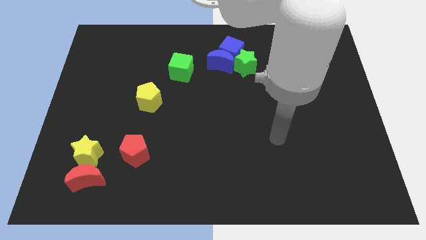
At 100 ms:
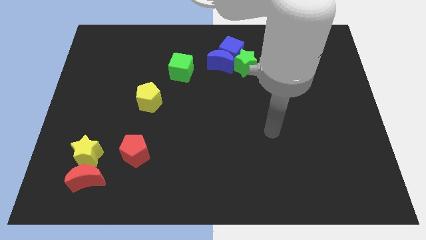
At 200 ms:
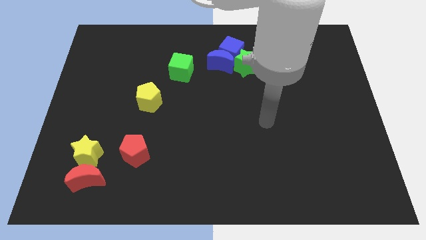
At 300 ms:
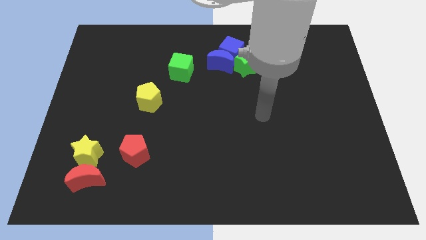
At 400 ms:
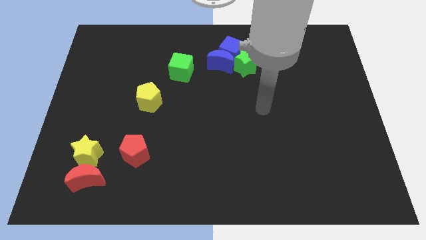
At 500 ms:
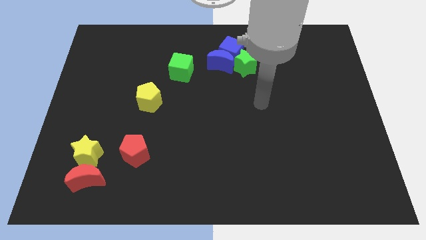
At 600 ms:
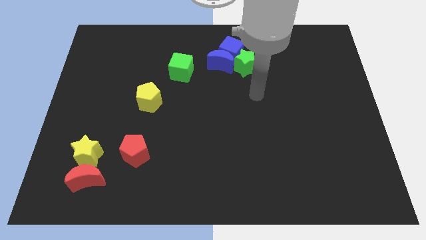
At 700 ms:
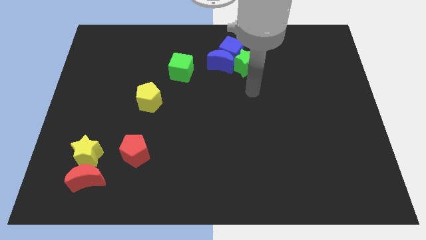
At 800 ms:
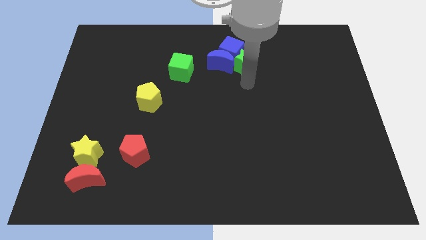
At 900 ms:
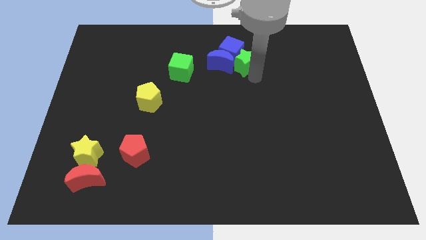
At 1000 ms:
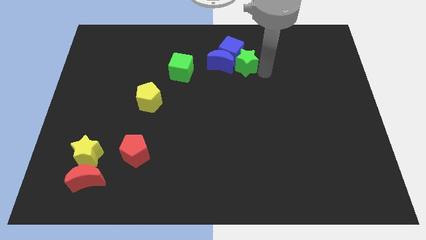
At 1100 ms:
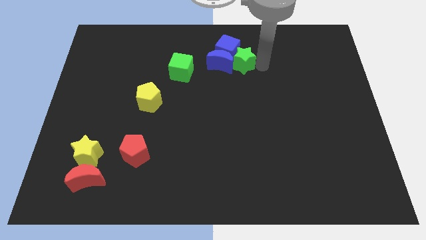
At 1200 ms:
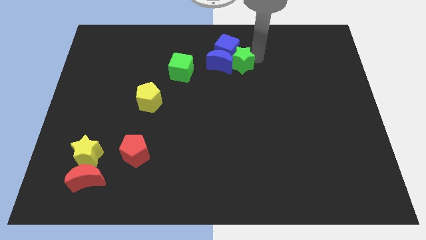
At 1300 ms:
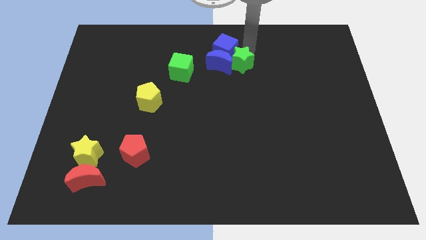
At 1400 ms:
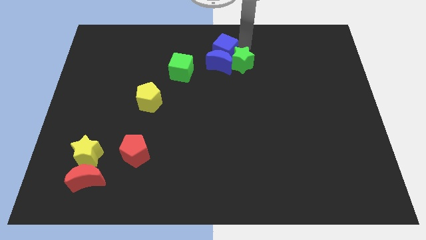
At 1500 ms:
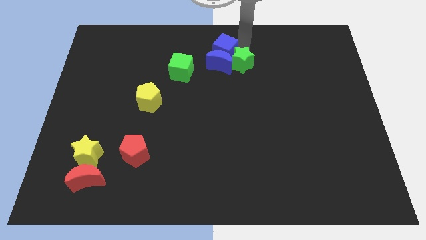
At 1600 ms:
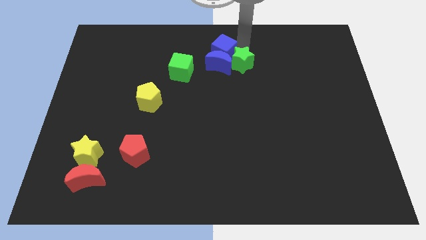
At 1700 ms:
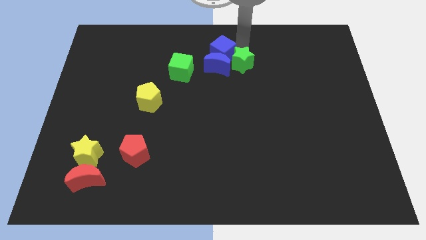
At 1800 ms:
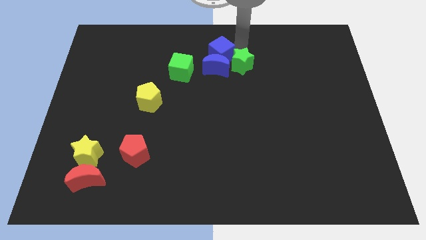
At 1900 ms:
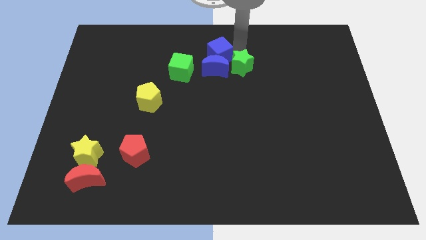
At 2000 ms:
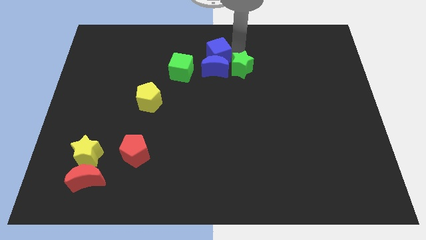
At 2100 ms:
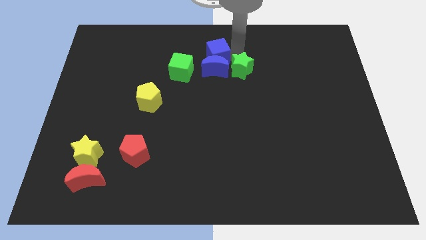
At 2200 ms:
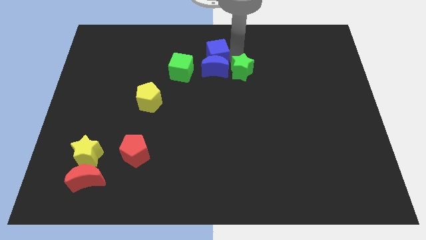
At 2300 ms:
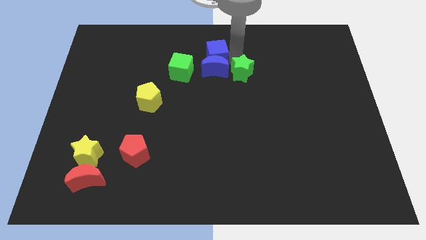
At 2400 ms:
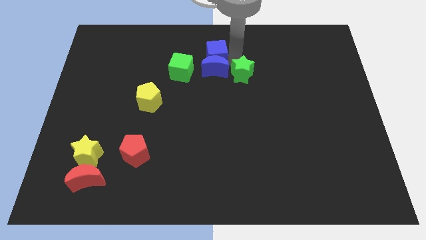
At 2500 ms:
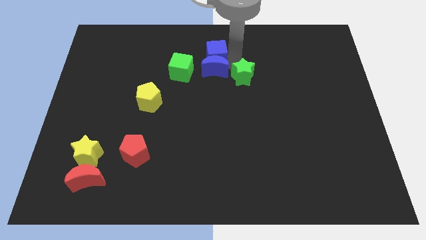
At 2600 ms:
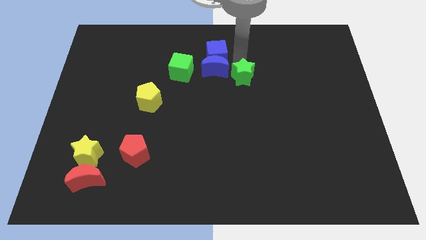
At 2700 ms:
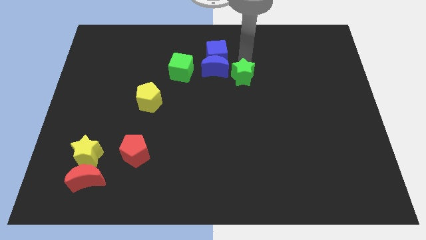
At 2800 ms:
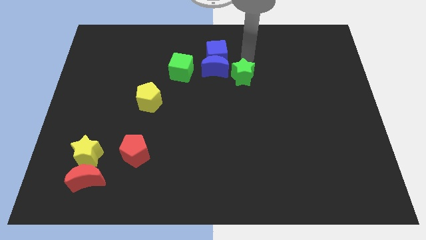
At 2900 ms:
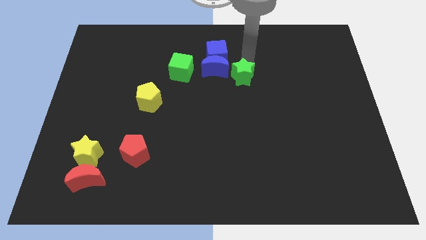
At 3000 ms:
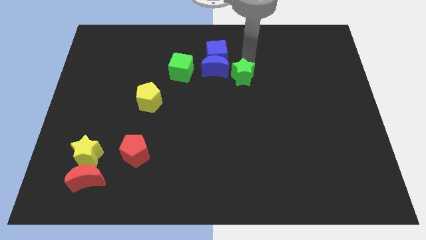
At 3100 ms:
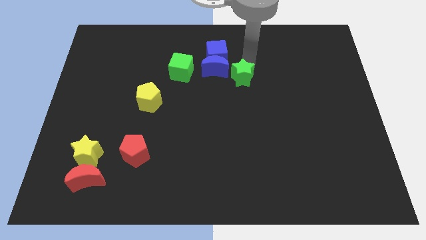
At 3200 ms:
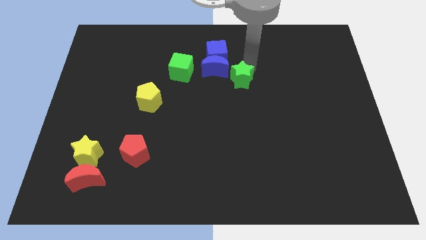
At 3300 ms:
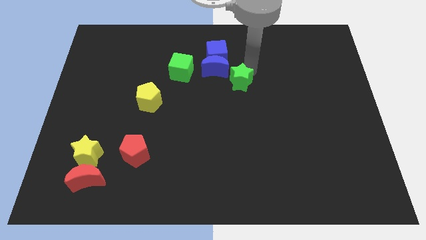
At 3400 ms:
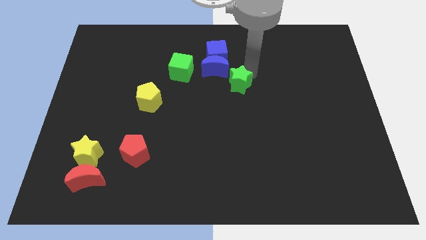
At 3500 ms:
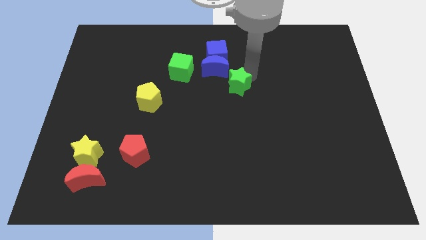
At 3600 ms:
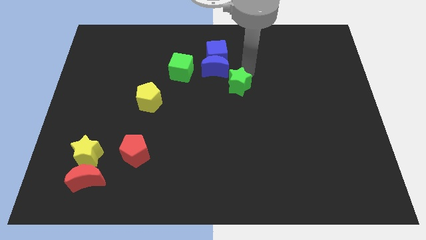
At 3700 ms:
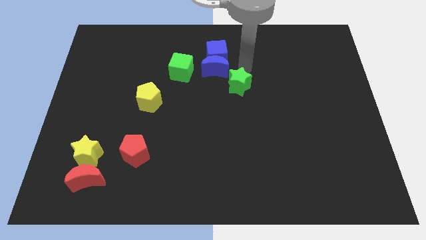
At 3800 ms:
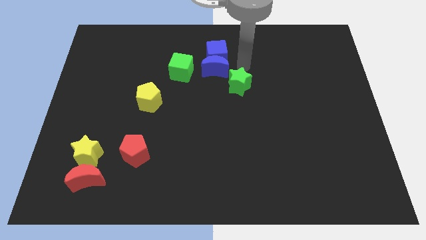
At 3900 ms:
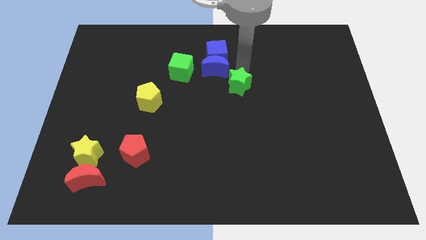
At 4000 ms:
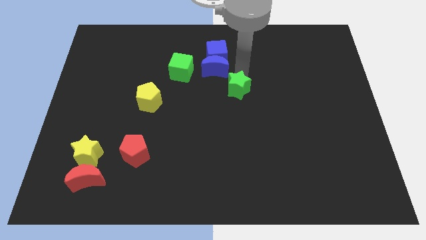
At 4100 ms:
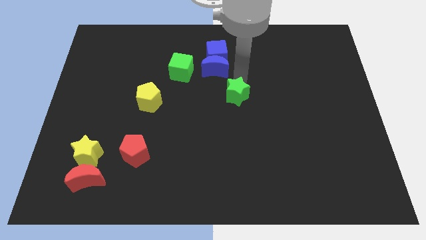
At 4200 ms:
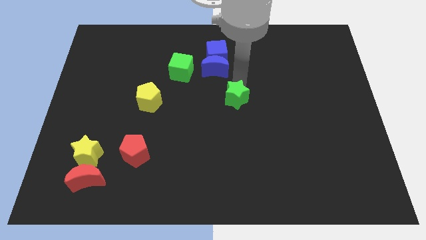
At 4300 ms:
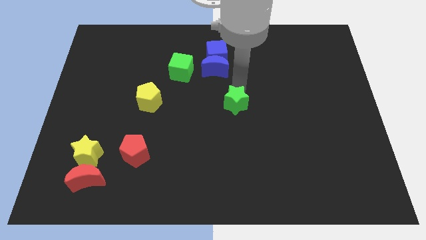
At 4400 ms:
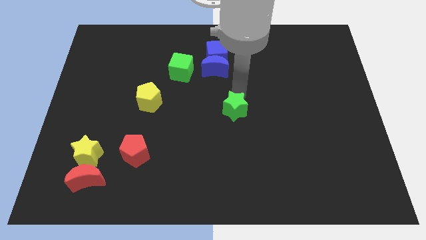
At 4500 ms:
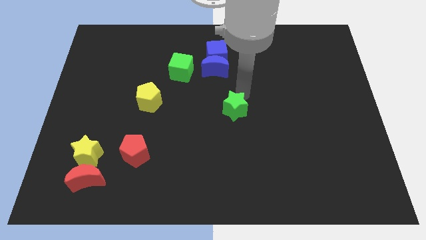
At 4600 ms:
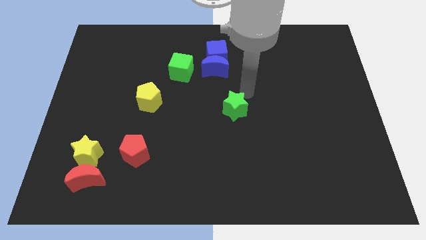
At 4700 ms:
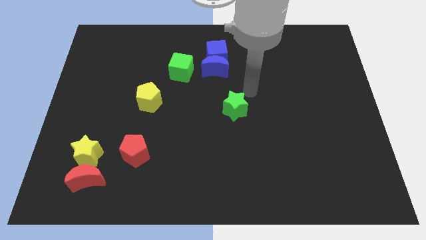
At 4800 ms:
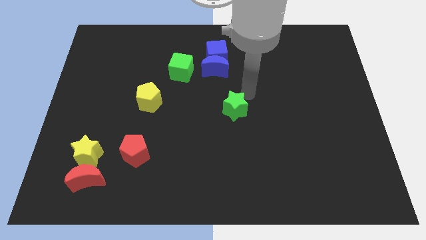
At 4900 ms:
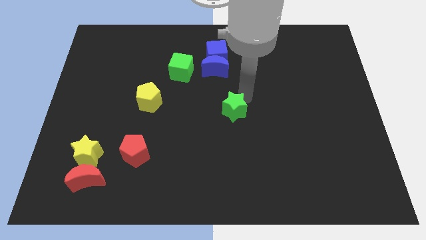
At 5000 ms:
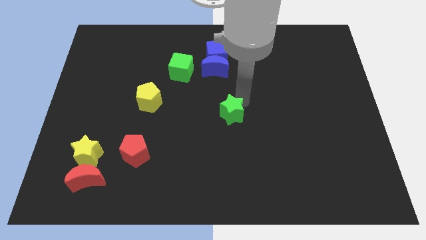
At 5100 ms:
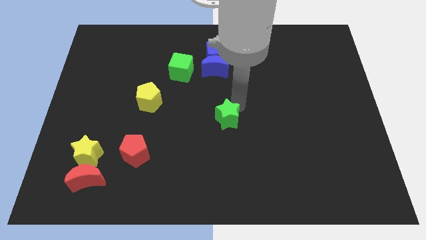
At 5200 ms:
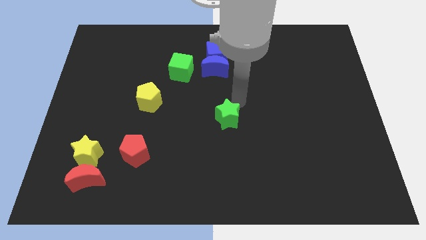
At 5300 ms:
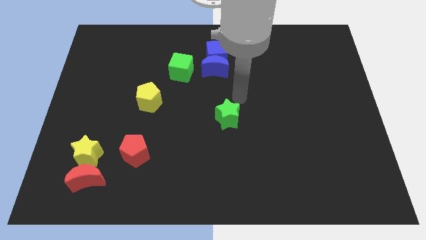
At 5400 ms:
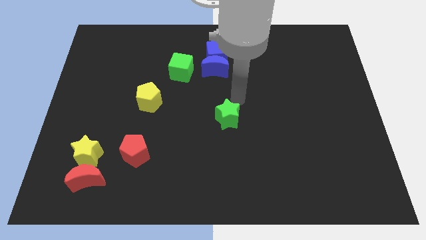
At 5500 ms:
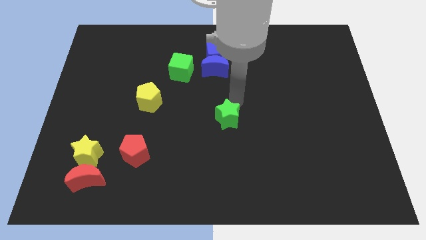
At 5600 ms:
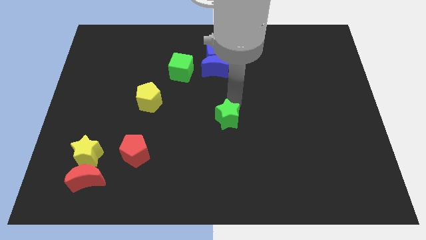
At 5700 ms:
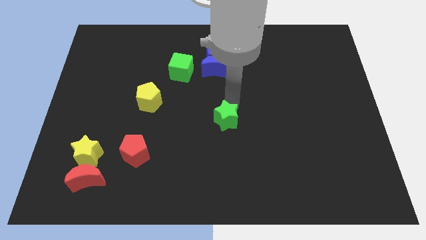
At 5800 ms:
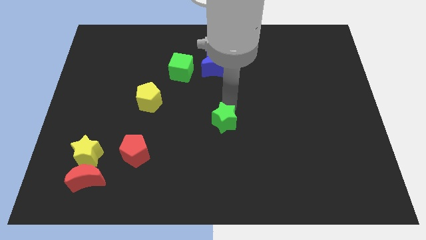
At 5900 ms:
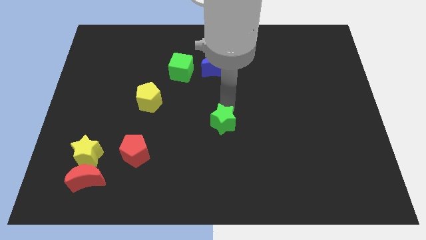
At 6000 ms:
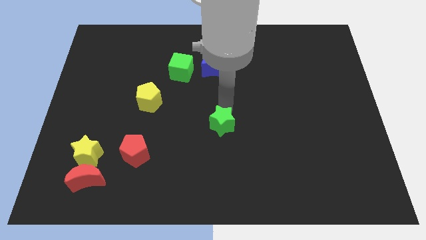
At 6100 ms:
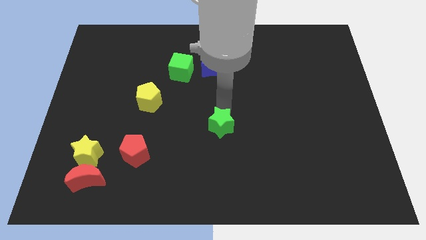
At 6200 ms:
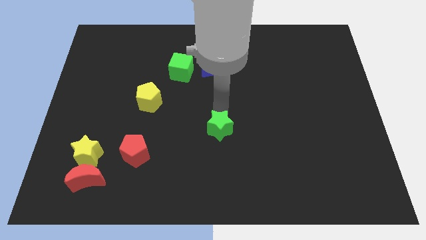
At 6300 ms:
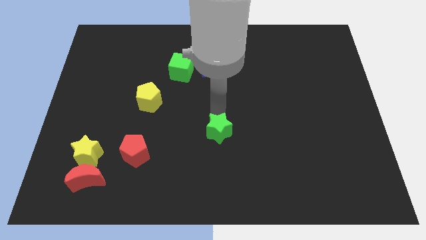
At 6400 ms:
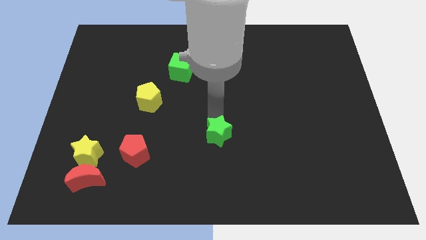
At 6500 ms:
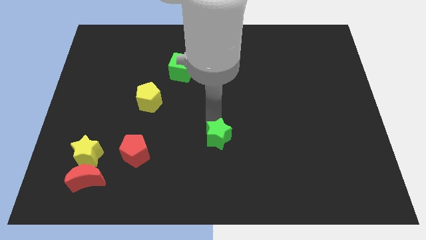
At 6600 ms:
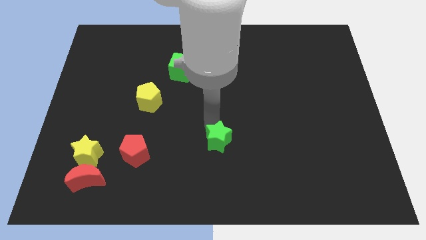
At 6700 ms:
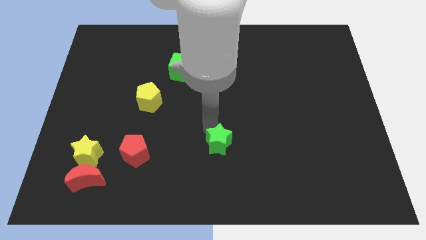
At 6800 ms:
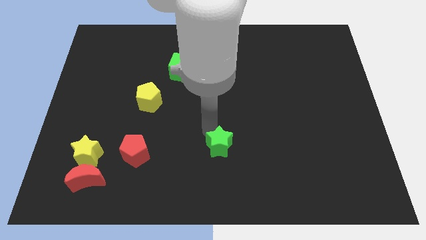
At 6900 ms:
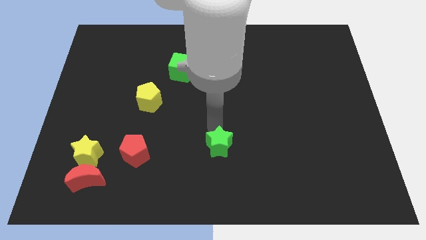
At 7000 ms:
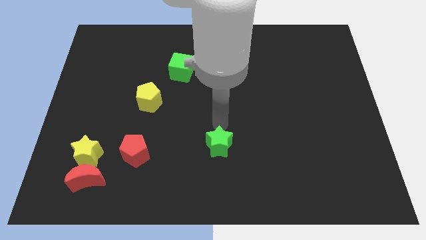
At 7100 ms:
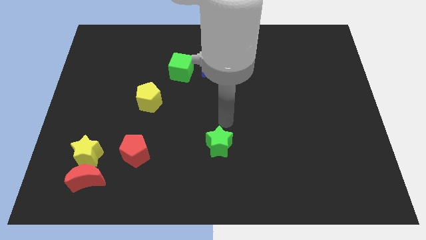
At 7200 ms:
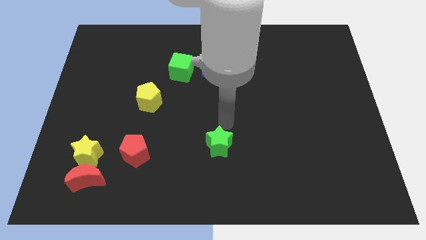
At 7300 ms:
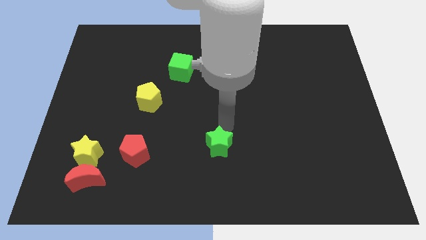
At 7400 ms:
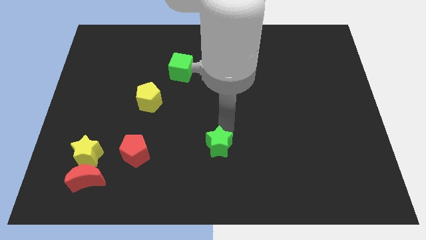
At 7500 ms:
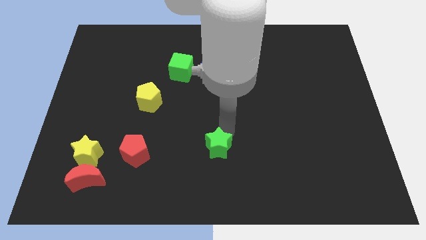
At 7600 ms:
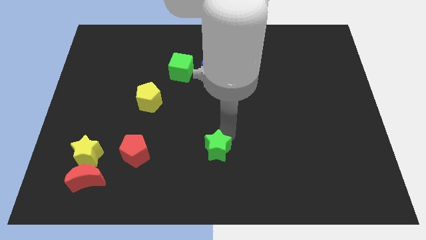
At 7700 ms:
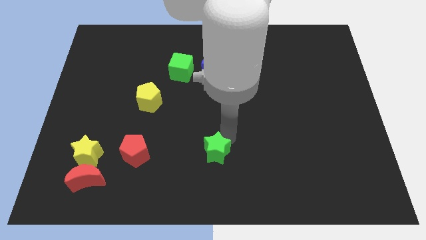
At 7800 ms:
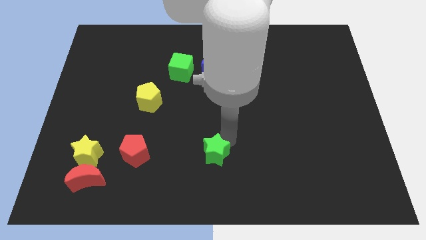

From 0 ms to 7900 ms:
put the green star to the bottom

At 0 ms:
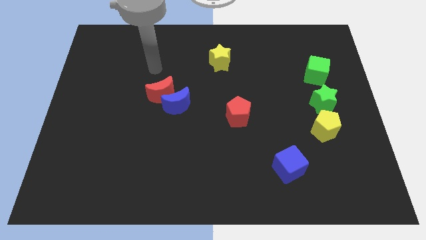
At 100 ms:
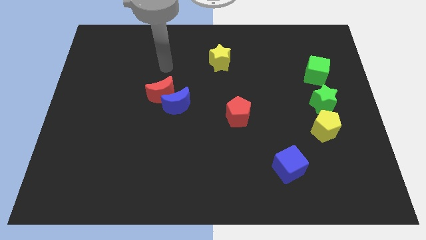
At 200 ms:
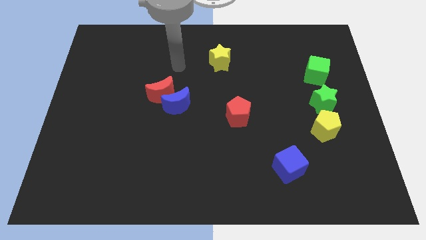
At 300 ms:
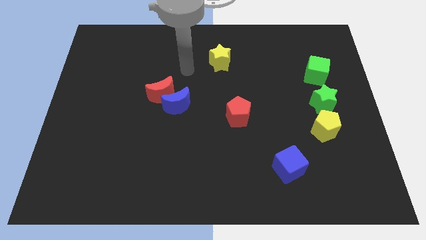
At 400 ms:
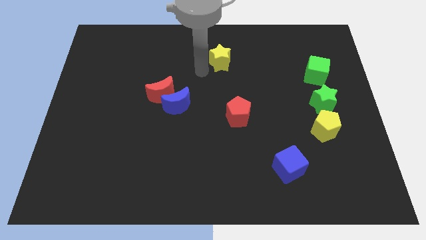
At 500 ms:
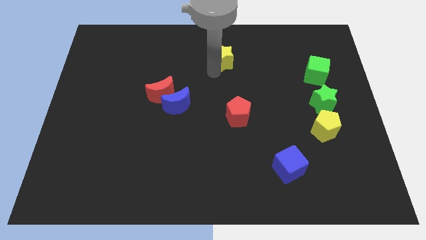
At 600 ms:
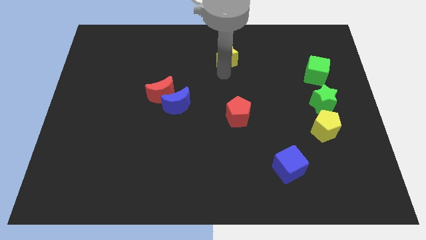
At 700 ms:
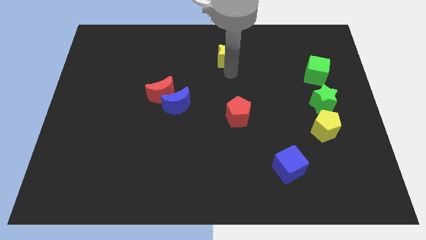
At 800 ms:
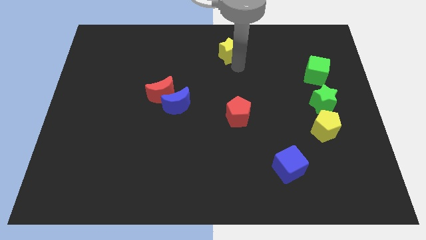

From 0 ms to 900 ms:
put the yellow star to the top side
